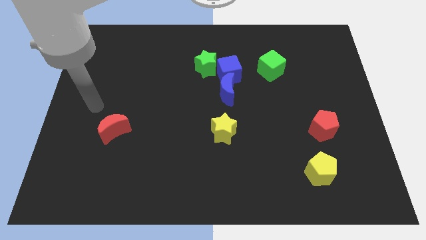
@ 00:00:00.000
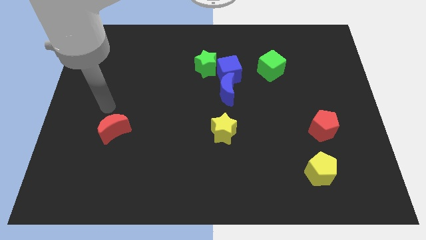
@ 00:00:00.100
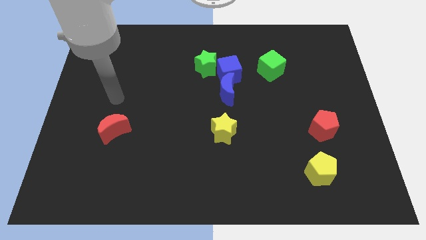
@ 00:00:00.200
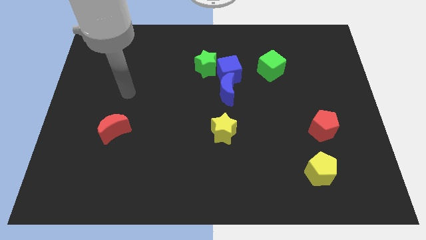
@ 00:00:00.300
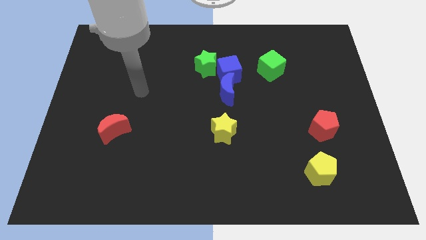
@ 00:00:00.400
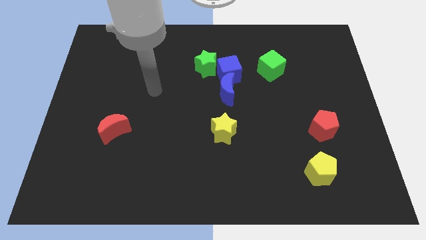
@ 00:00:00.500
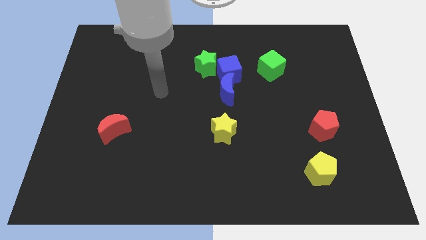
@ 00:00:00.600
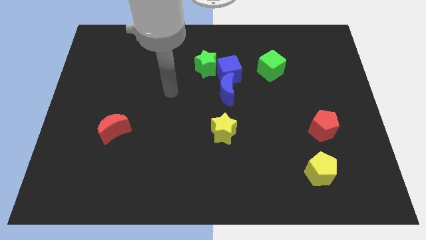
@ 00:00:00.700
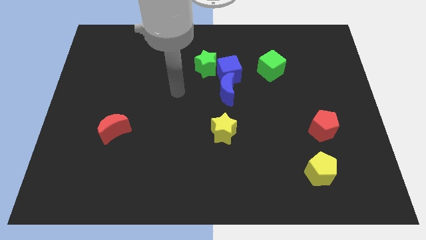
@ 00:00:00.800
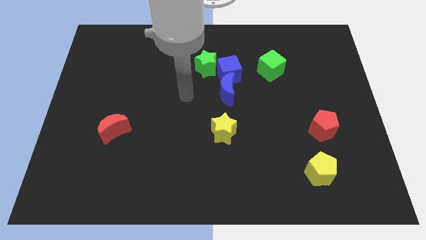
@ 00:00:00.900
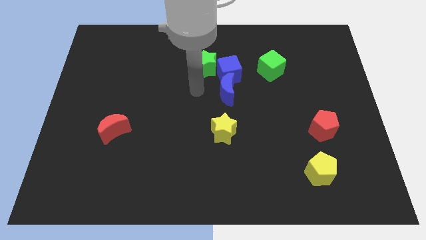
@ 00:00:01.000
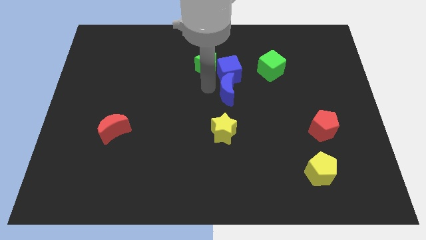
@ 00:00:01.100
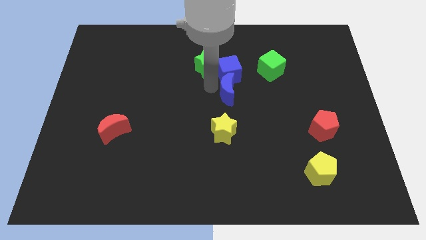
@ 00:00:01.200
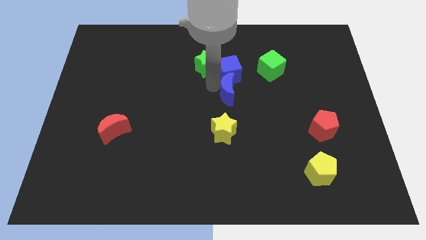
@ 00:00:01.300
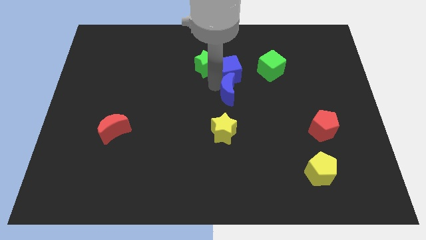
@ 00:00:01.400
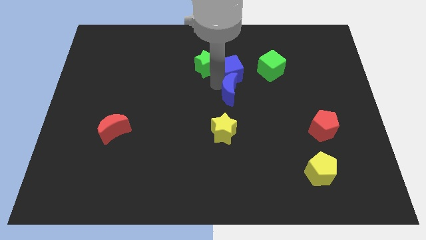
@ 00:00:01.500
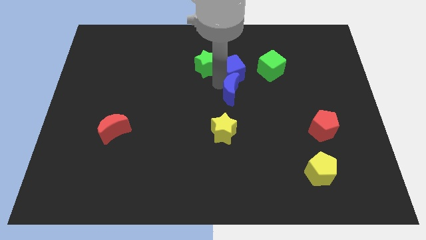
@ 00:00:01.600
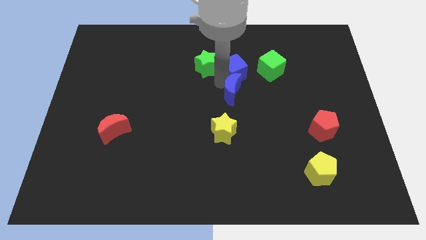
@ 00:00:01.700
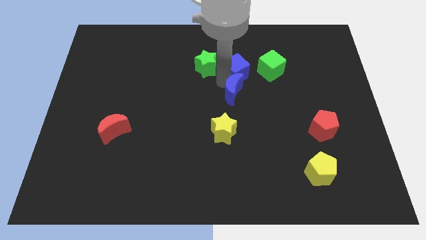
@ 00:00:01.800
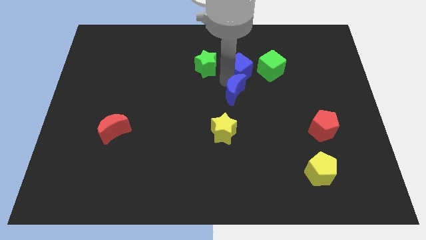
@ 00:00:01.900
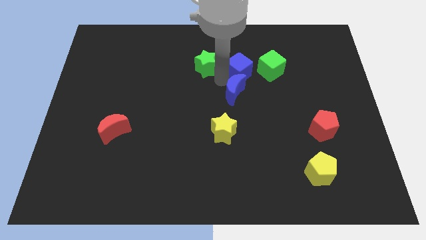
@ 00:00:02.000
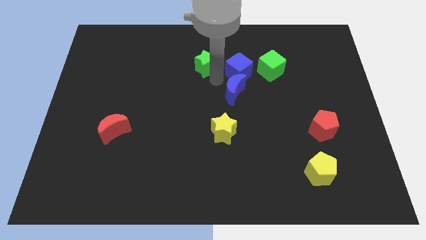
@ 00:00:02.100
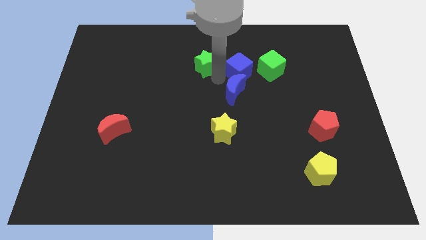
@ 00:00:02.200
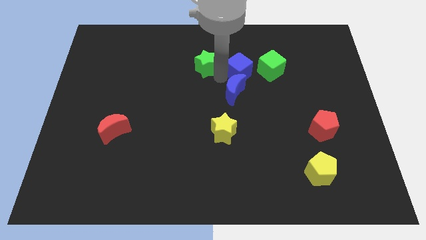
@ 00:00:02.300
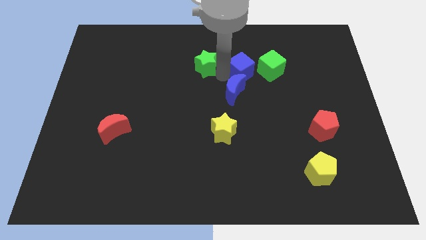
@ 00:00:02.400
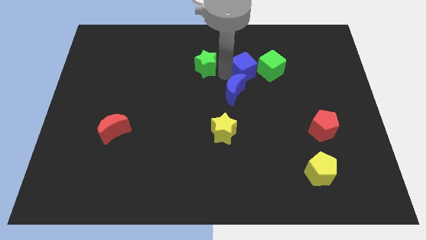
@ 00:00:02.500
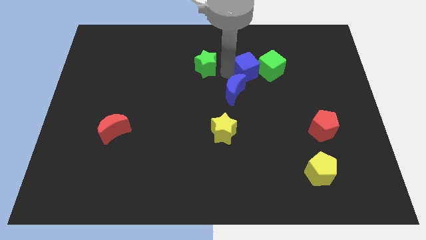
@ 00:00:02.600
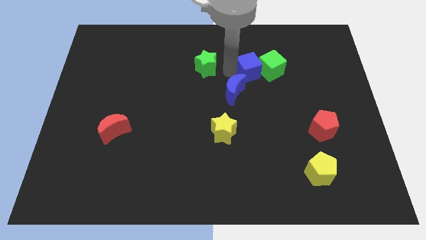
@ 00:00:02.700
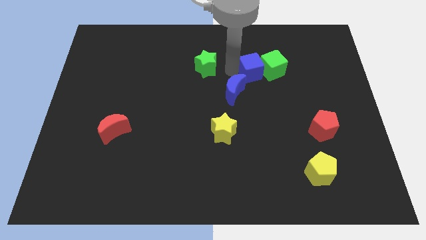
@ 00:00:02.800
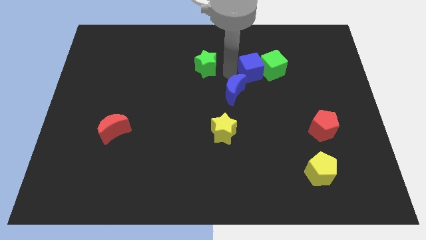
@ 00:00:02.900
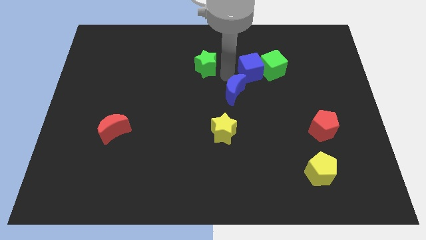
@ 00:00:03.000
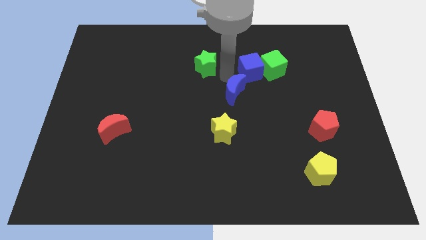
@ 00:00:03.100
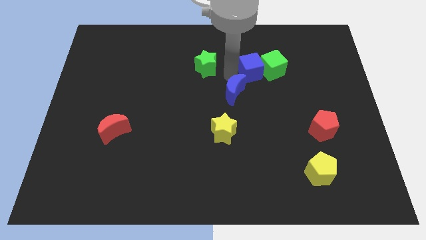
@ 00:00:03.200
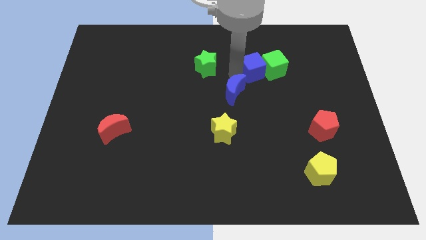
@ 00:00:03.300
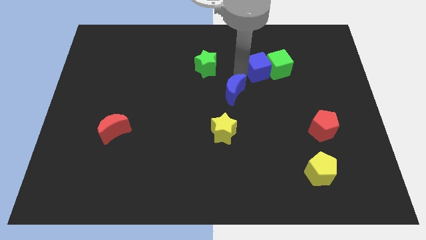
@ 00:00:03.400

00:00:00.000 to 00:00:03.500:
pull the blue cube apart from the blue moon and green star

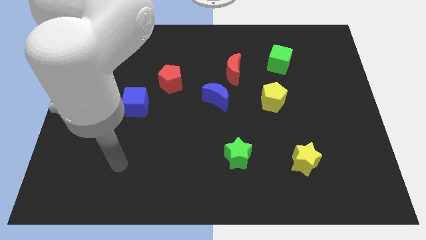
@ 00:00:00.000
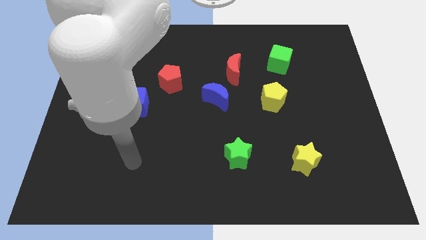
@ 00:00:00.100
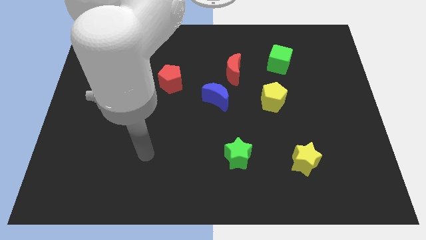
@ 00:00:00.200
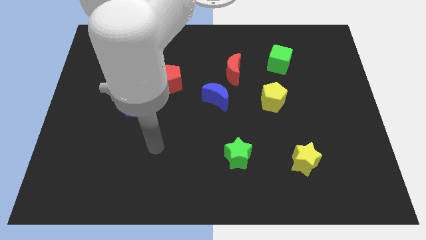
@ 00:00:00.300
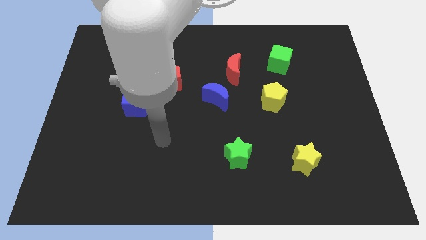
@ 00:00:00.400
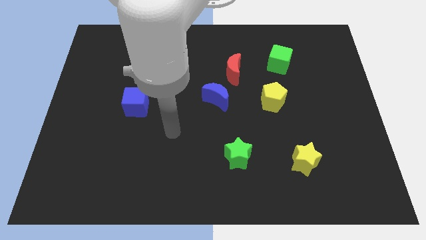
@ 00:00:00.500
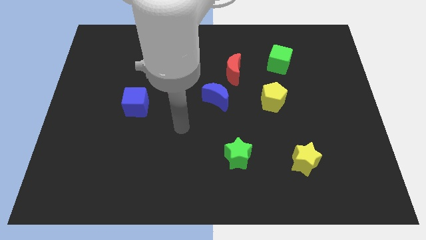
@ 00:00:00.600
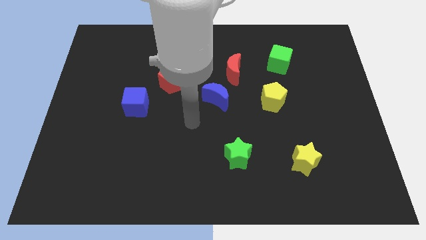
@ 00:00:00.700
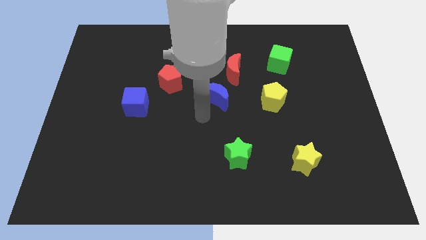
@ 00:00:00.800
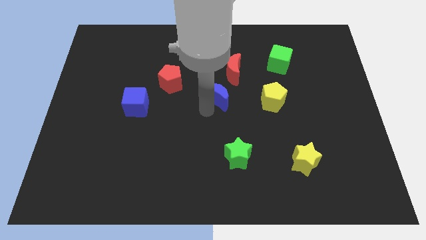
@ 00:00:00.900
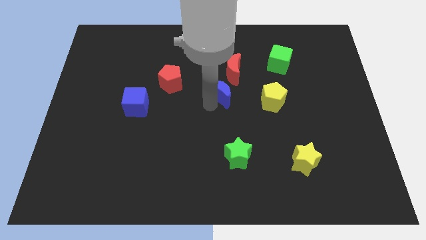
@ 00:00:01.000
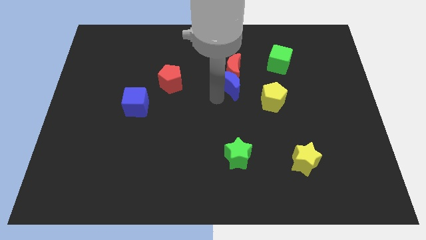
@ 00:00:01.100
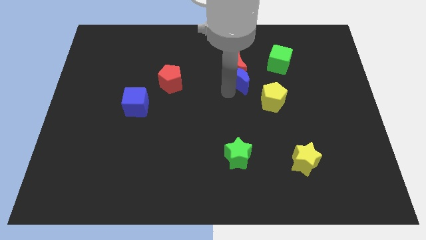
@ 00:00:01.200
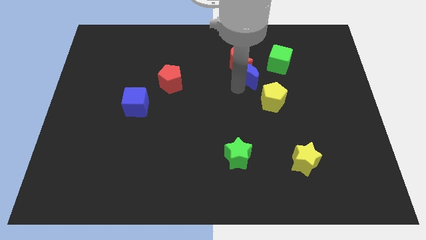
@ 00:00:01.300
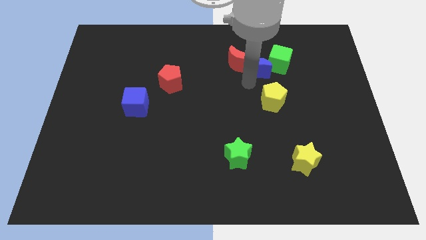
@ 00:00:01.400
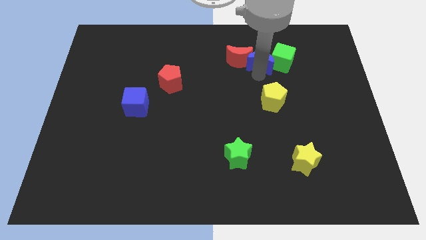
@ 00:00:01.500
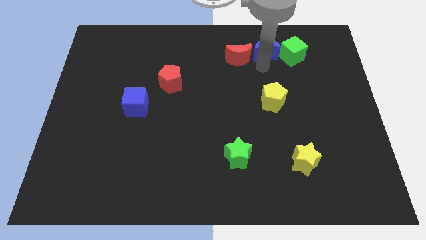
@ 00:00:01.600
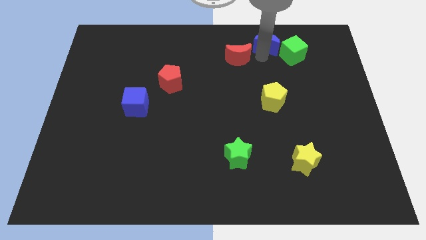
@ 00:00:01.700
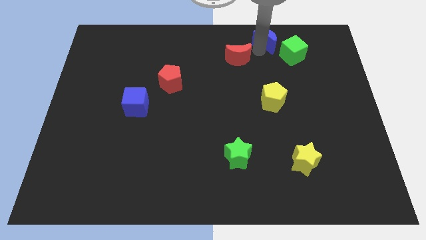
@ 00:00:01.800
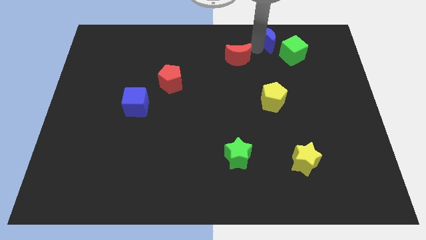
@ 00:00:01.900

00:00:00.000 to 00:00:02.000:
pull the red moon apart from the blue moon

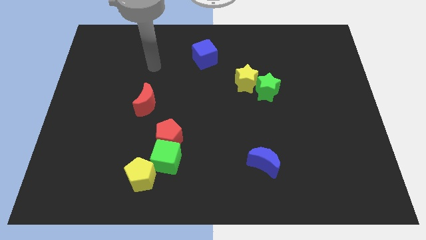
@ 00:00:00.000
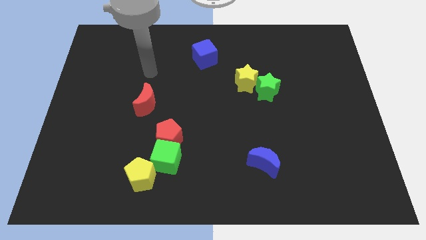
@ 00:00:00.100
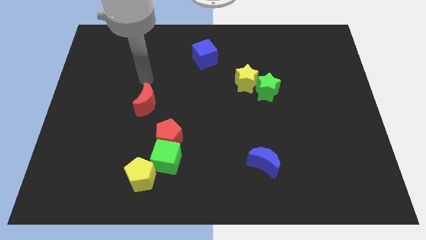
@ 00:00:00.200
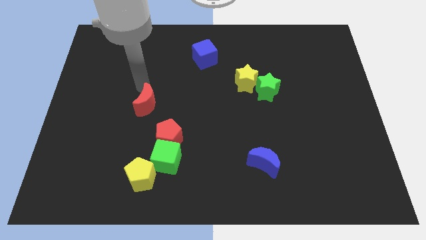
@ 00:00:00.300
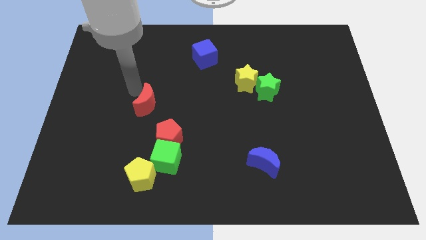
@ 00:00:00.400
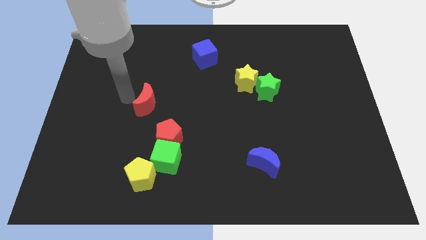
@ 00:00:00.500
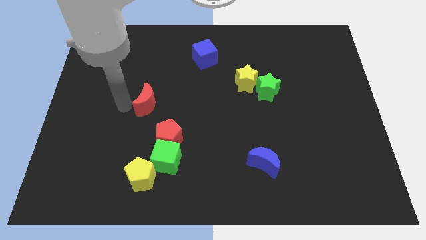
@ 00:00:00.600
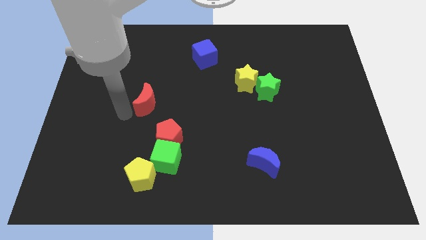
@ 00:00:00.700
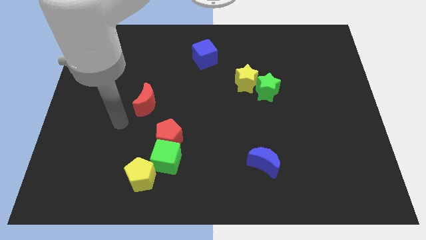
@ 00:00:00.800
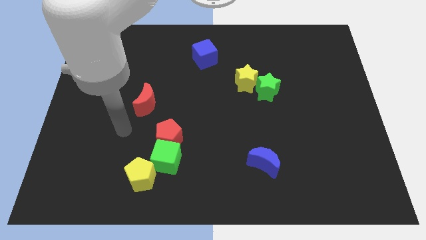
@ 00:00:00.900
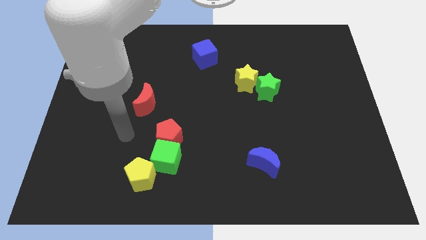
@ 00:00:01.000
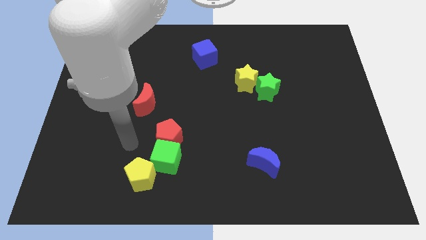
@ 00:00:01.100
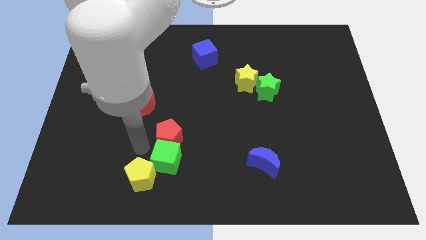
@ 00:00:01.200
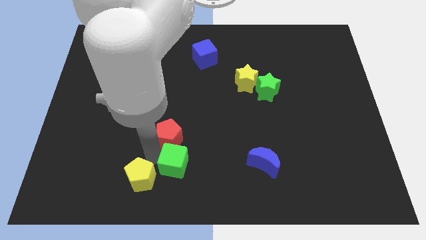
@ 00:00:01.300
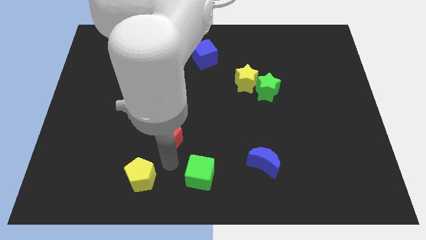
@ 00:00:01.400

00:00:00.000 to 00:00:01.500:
separate the red pentagon from the green cube

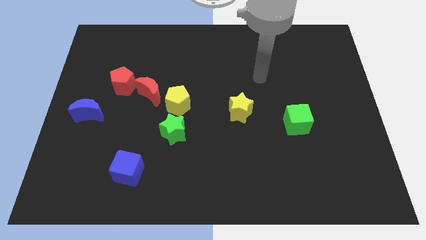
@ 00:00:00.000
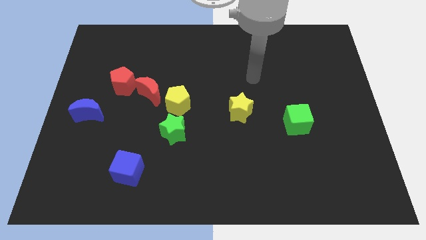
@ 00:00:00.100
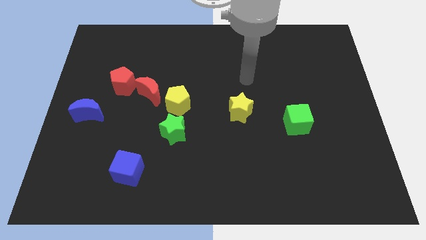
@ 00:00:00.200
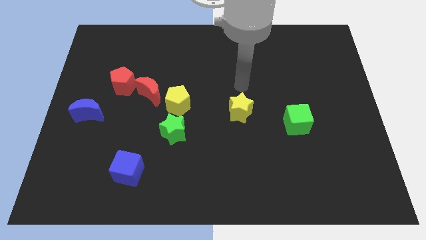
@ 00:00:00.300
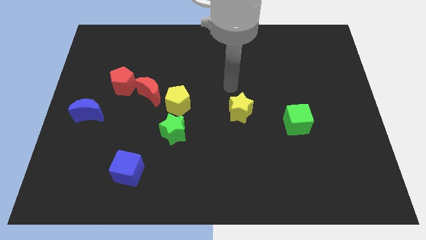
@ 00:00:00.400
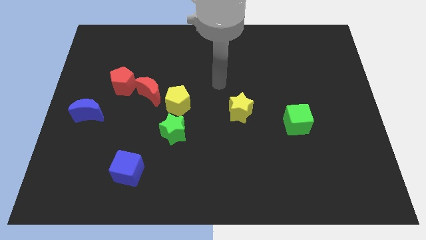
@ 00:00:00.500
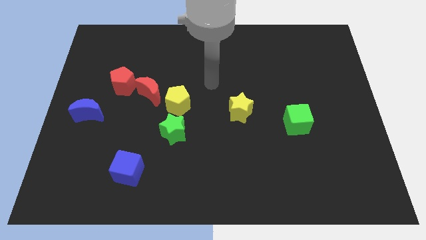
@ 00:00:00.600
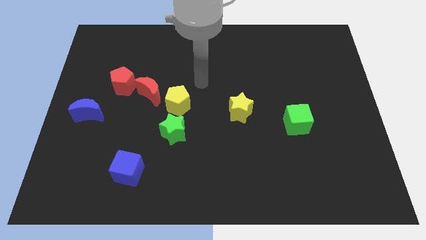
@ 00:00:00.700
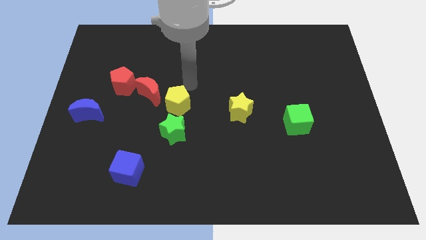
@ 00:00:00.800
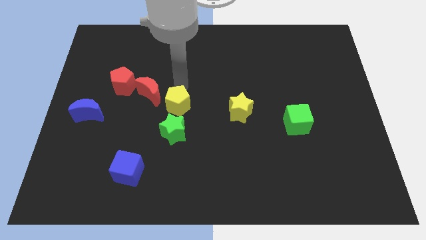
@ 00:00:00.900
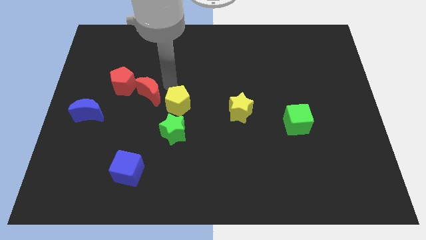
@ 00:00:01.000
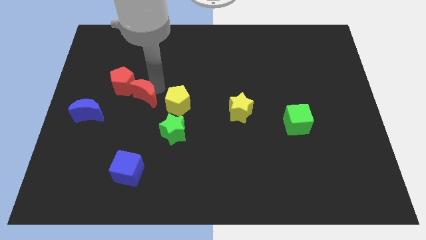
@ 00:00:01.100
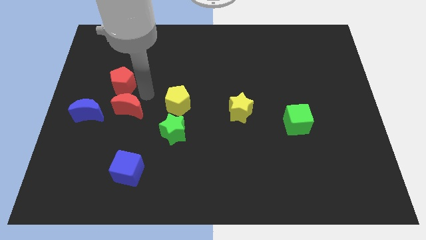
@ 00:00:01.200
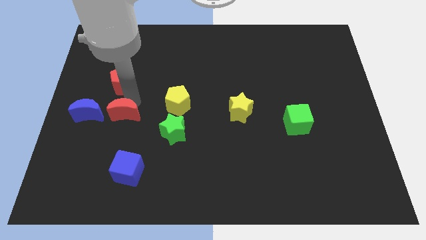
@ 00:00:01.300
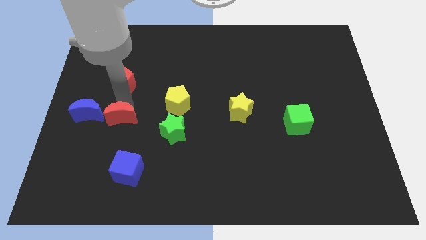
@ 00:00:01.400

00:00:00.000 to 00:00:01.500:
pull the red pentagon apart from the red moon

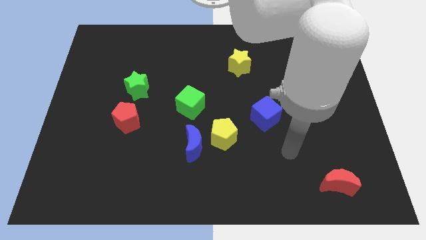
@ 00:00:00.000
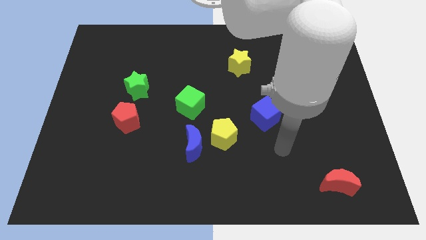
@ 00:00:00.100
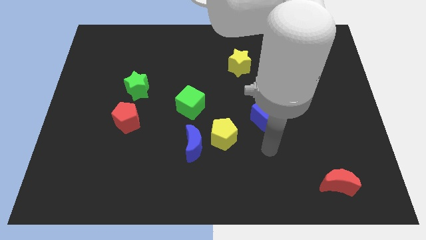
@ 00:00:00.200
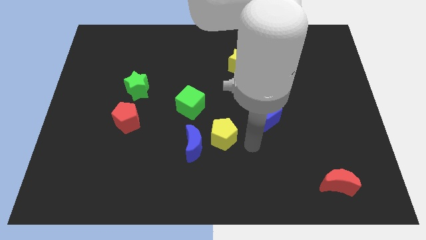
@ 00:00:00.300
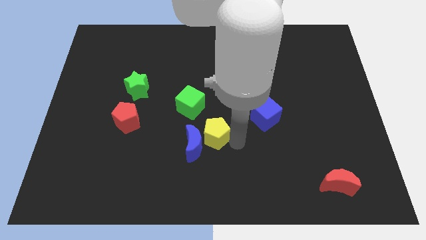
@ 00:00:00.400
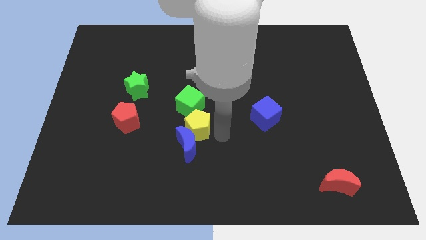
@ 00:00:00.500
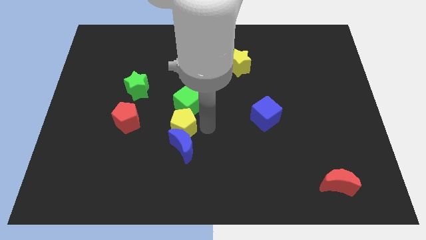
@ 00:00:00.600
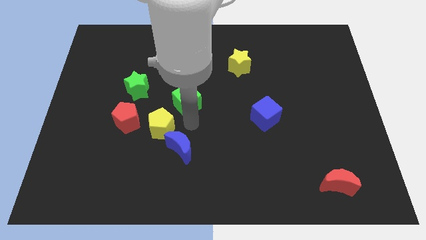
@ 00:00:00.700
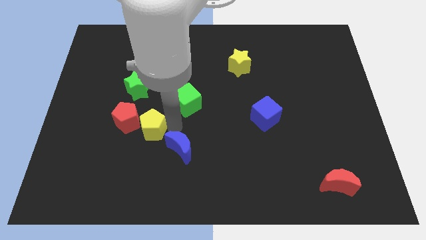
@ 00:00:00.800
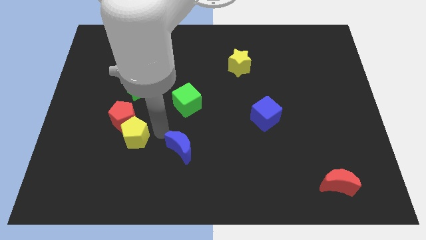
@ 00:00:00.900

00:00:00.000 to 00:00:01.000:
pull the blue moon apart from the yellow pentagon
